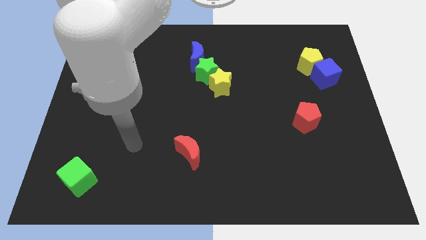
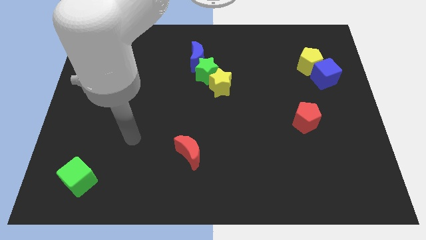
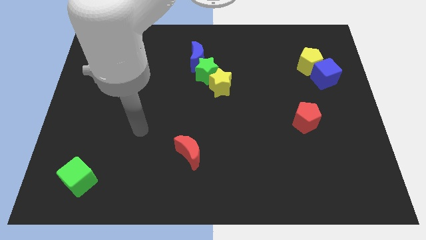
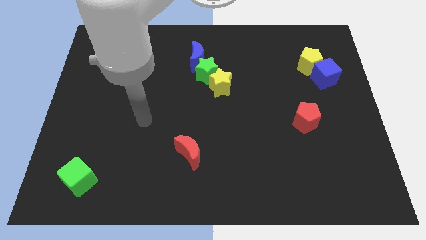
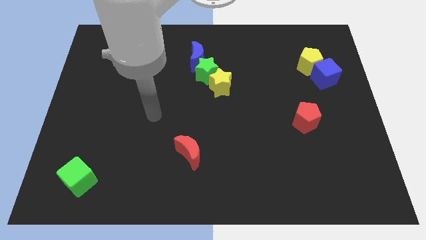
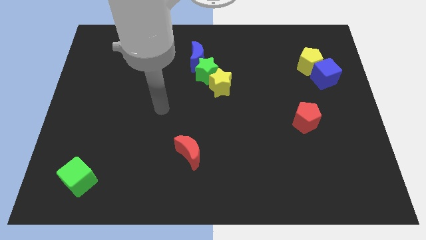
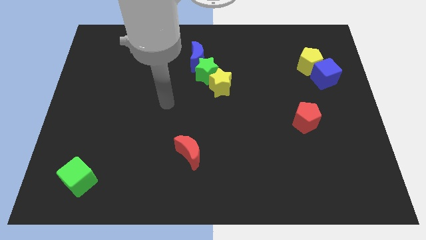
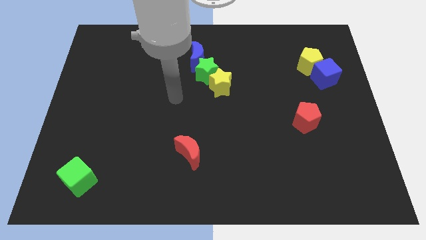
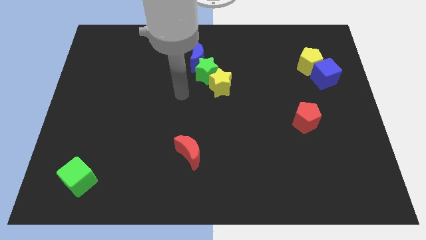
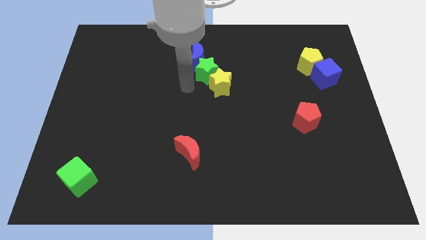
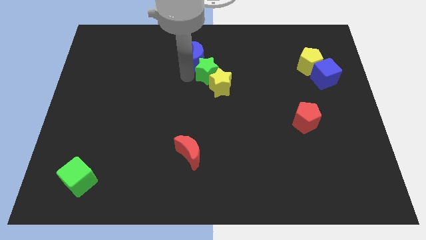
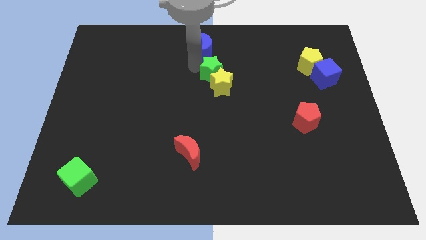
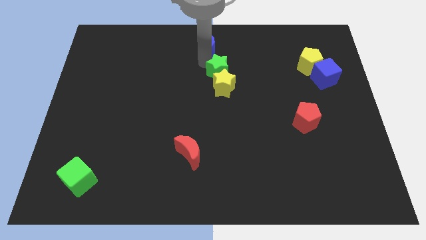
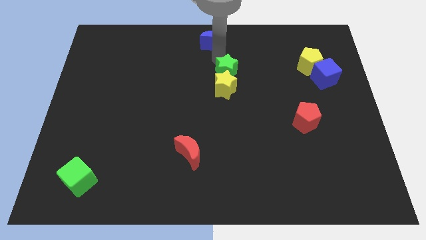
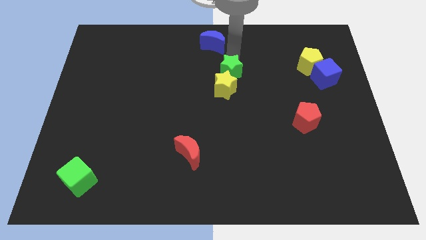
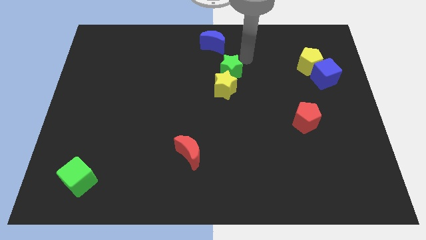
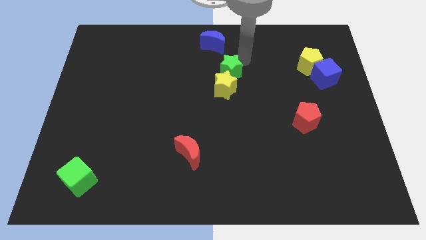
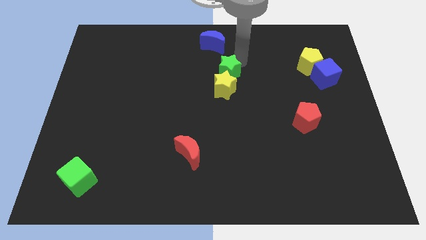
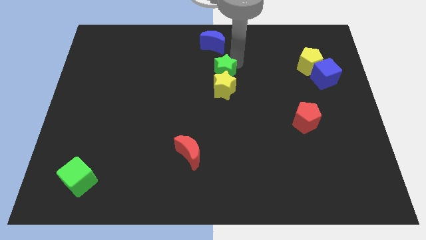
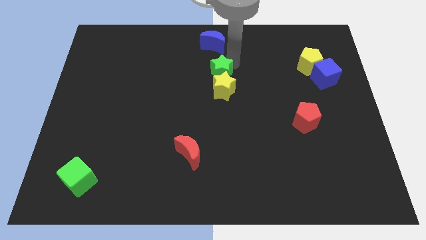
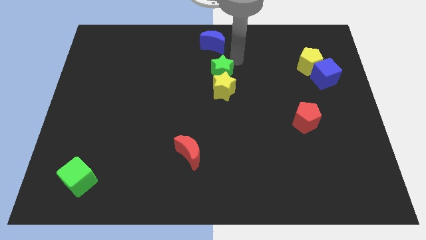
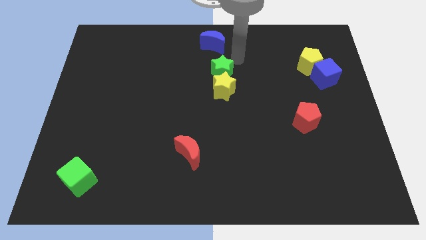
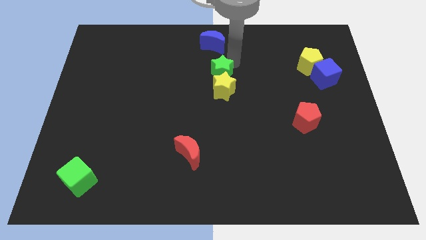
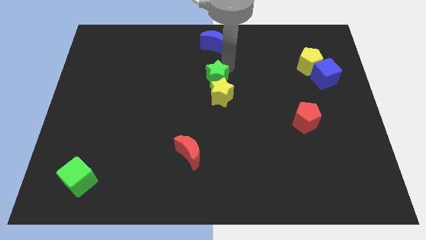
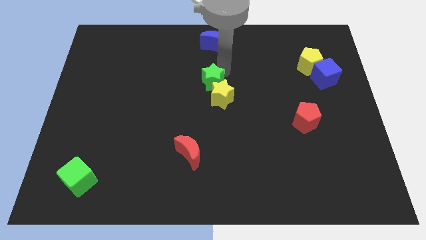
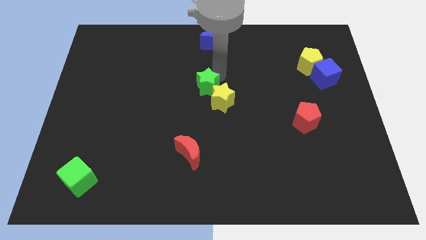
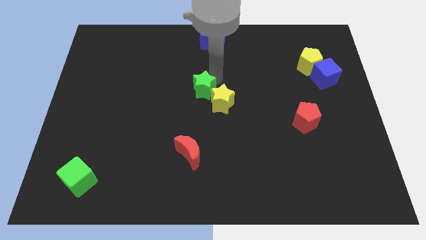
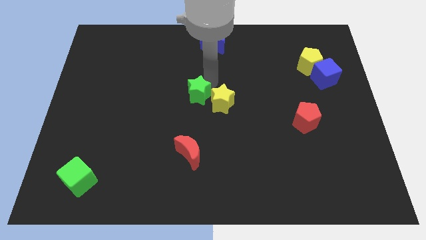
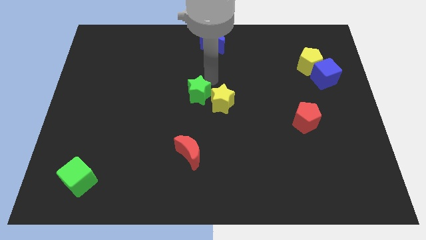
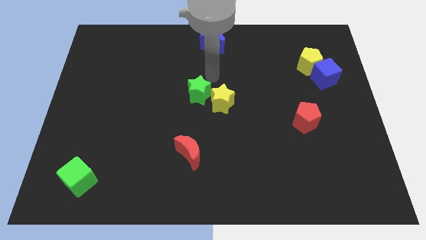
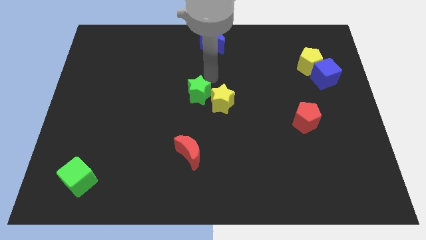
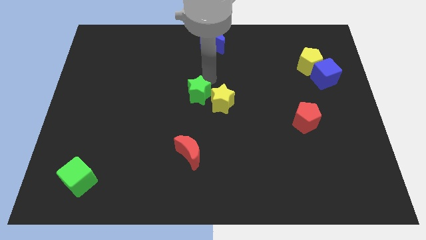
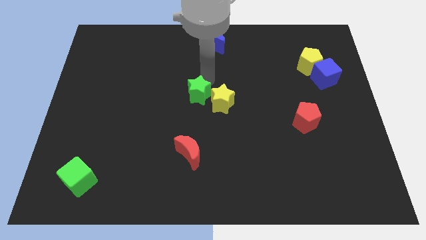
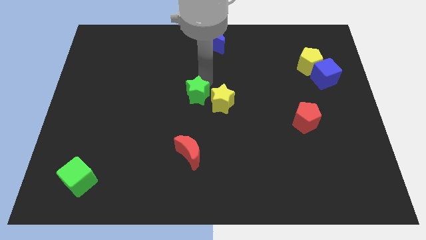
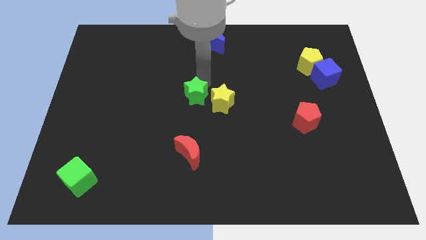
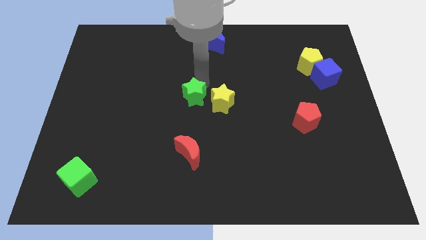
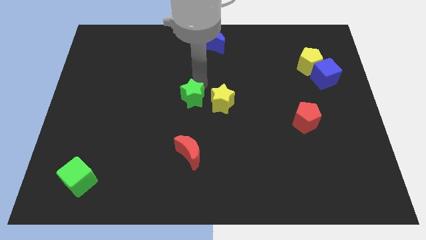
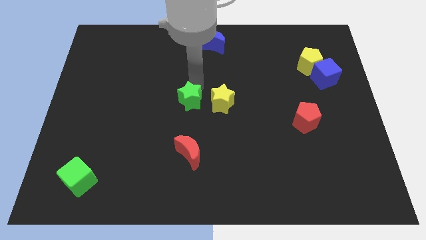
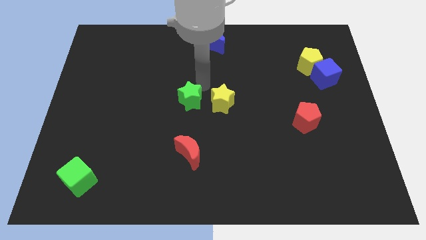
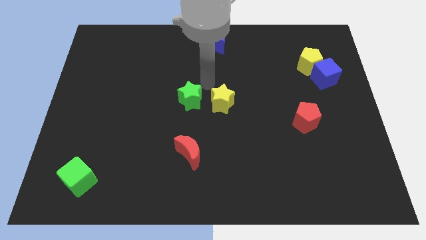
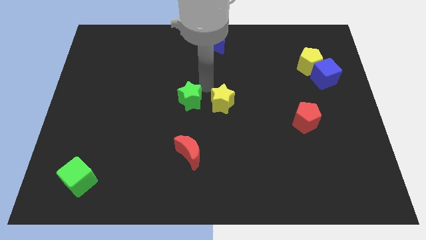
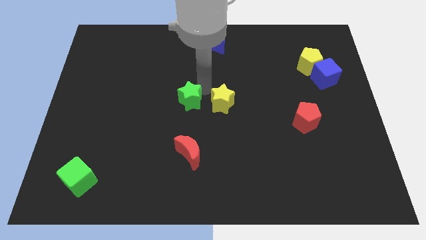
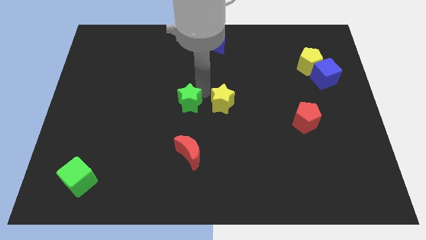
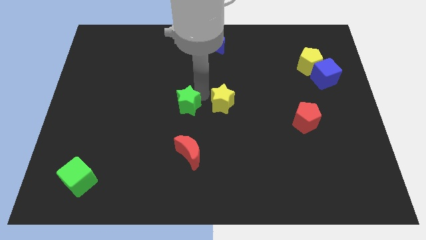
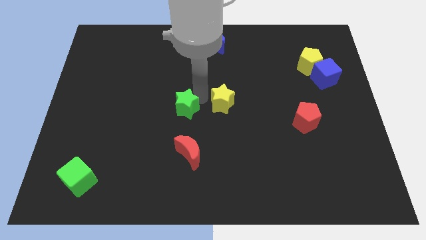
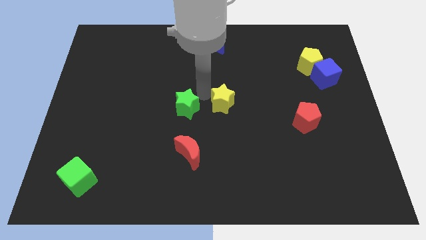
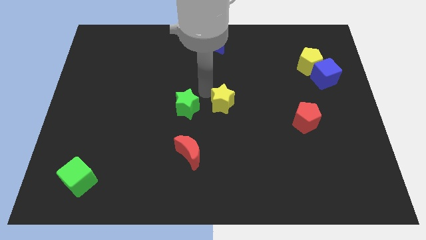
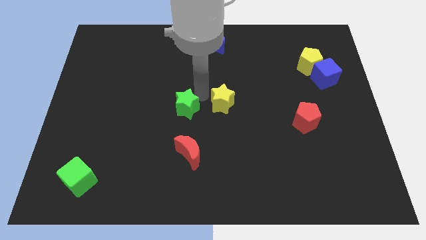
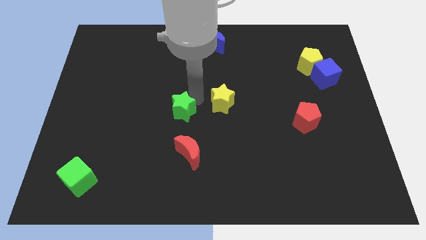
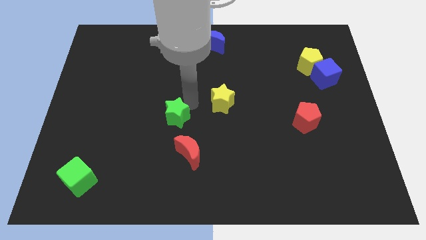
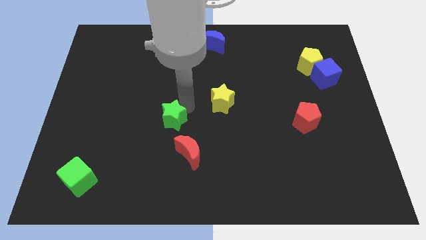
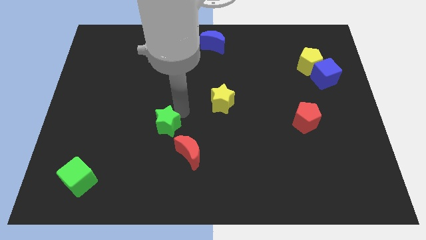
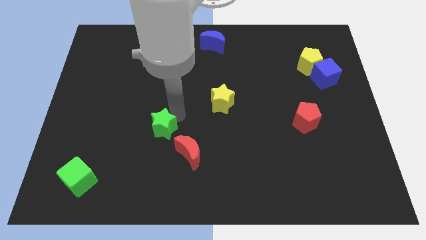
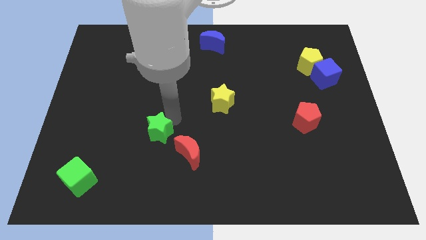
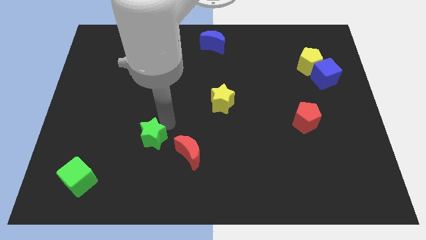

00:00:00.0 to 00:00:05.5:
move the green star just left of the red moon

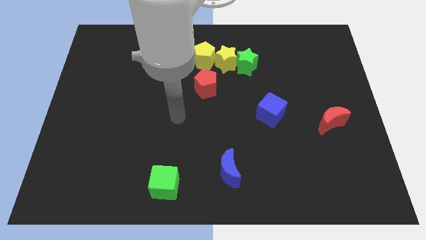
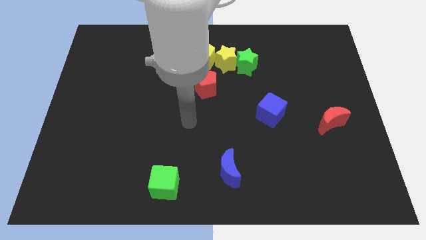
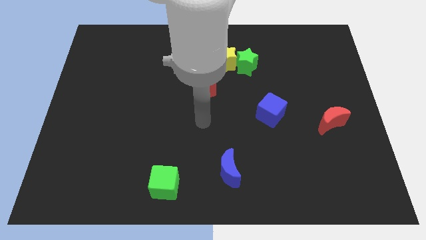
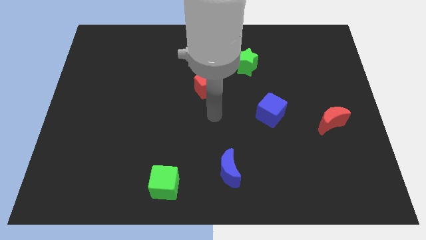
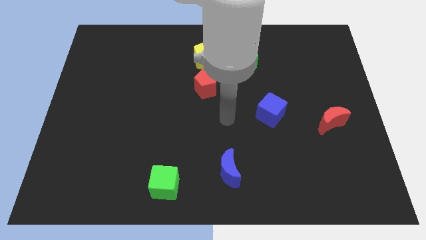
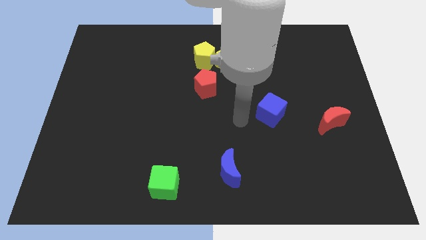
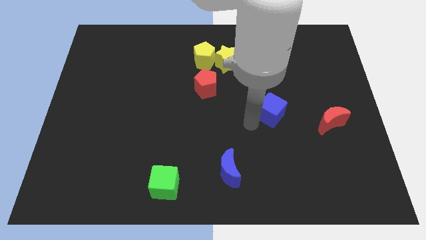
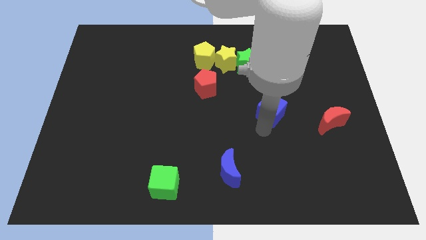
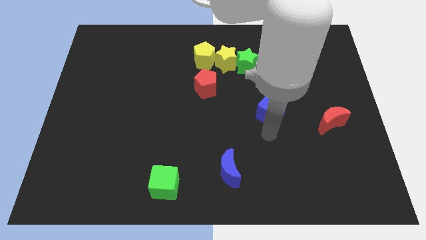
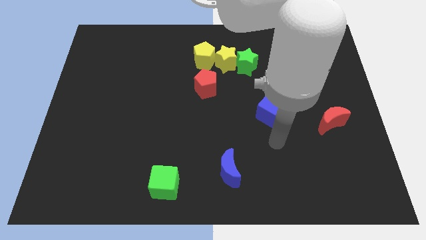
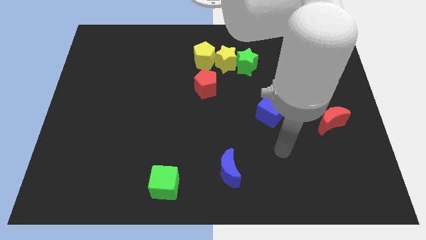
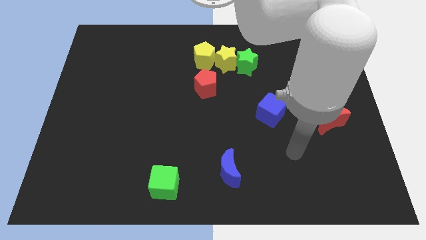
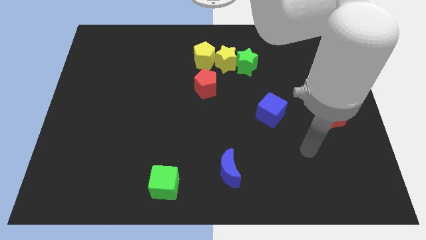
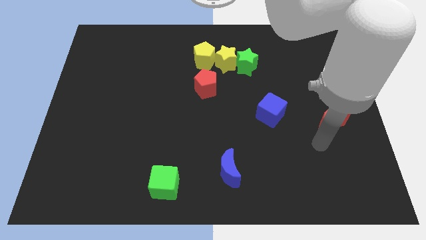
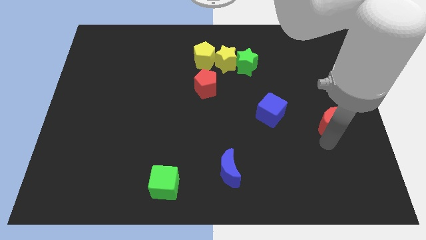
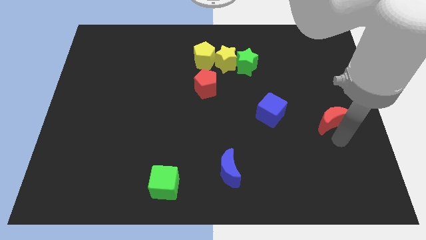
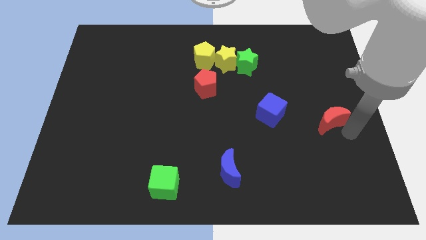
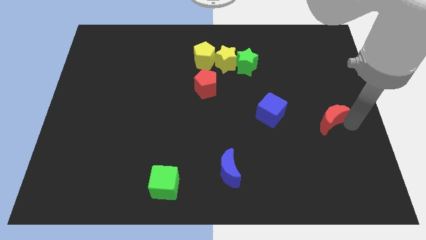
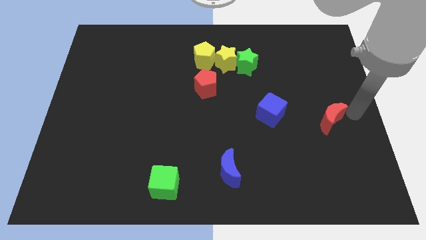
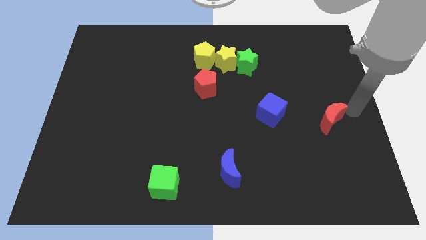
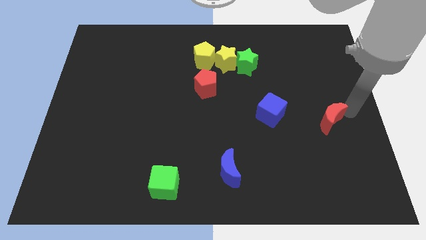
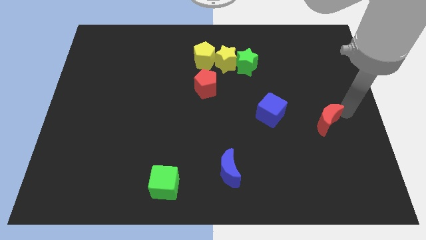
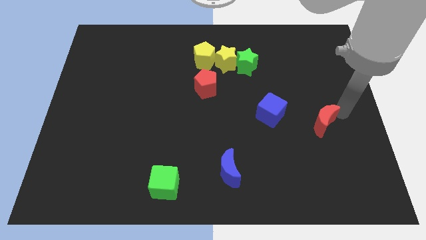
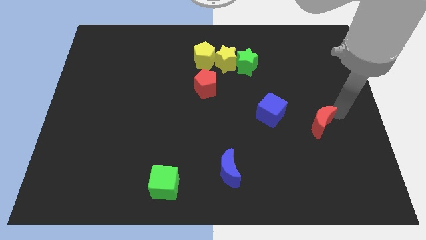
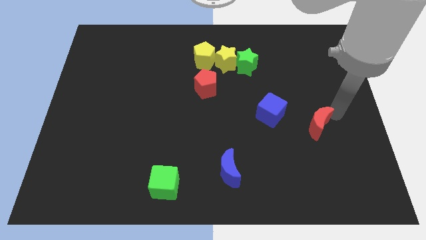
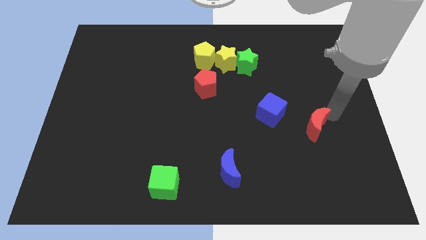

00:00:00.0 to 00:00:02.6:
move the red moon diagonally down and to the right of the blue cube
